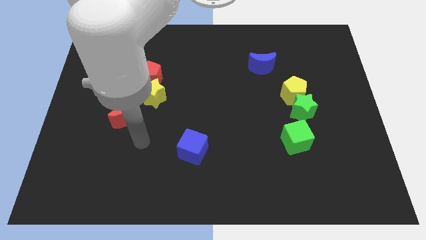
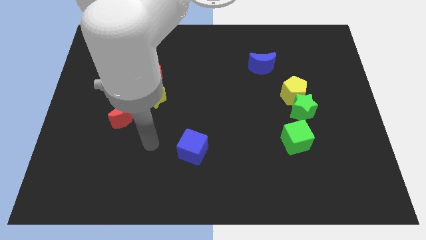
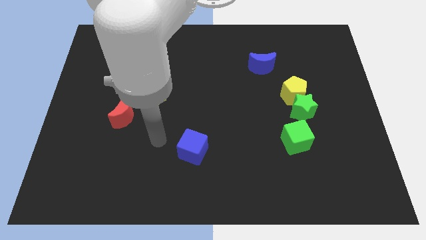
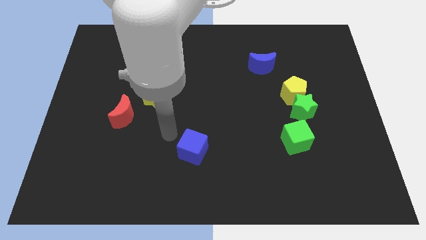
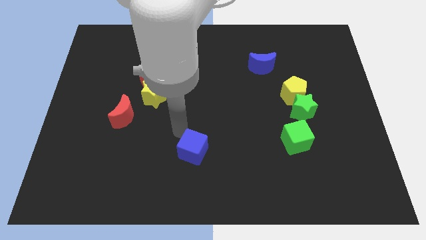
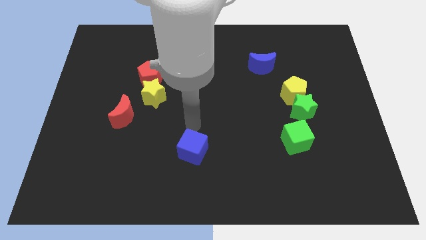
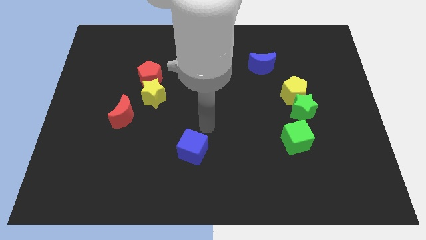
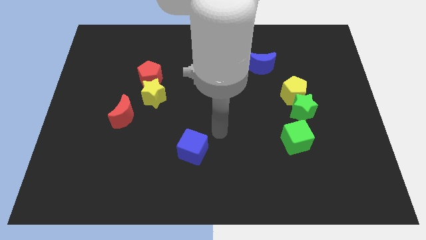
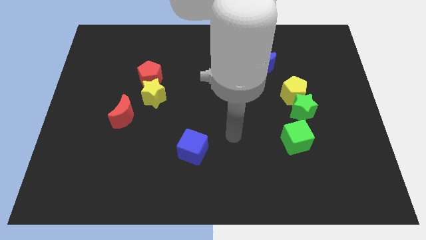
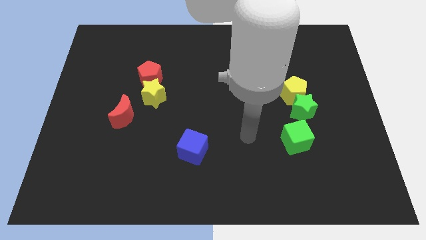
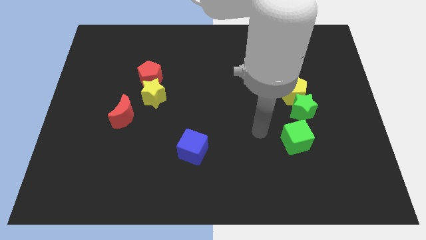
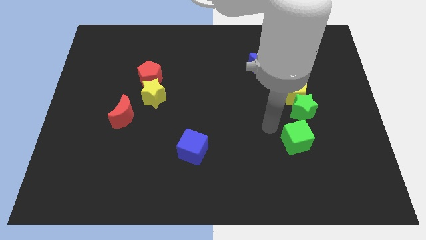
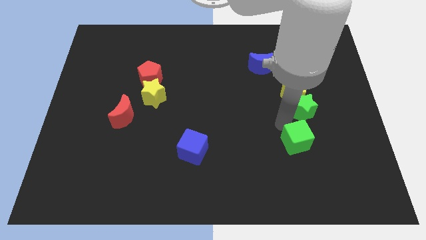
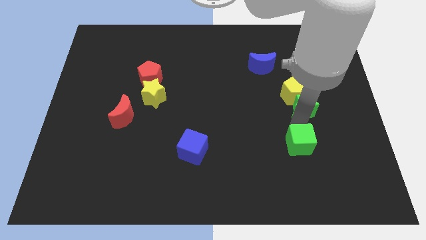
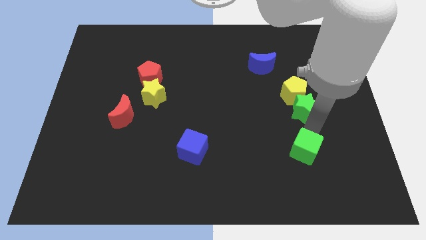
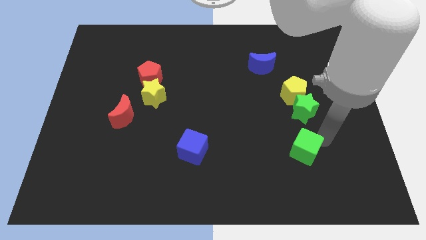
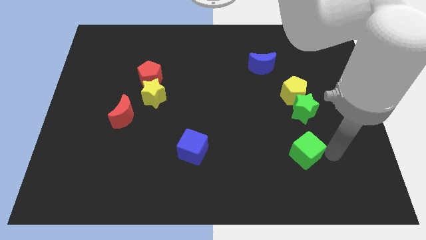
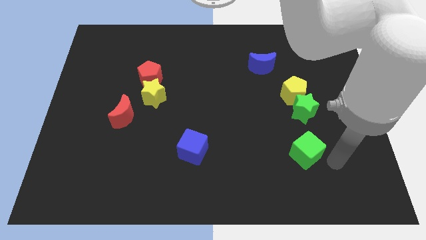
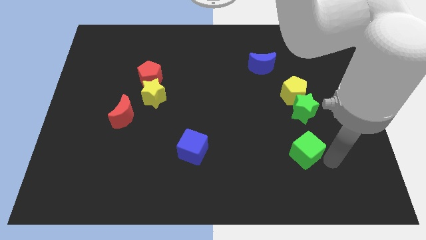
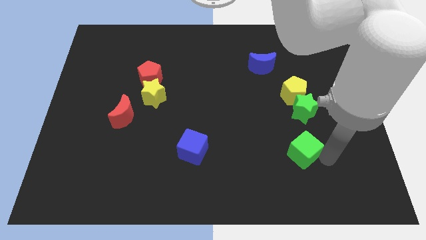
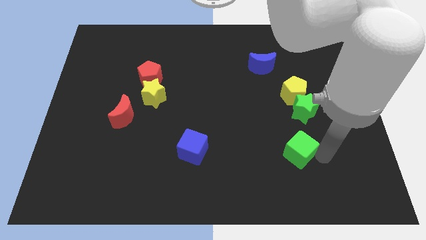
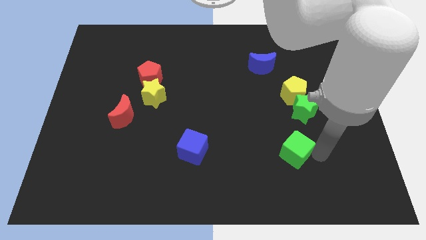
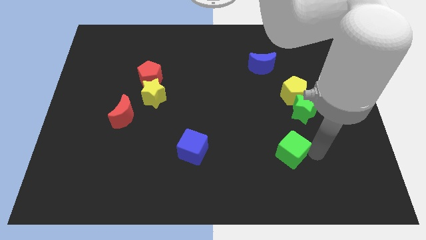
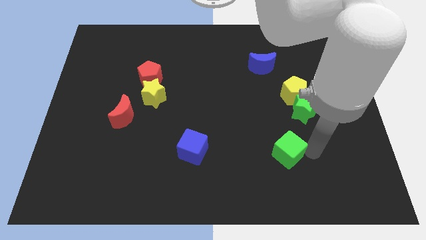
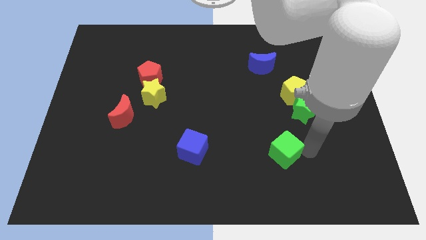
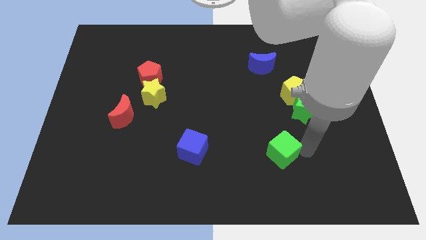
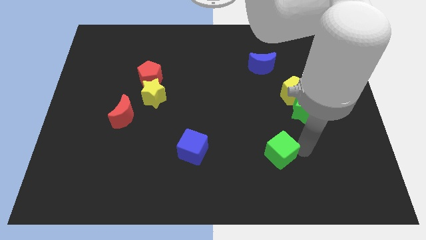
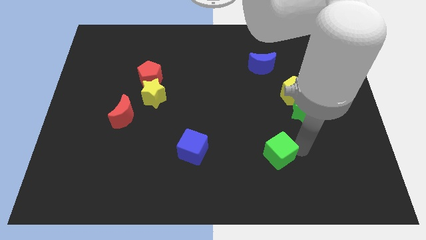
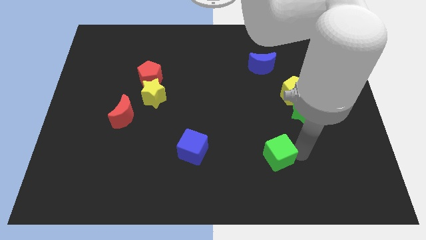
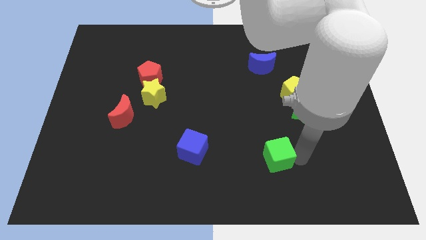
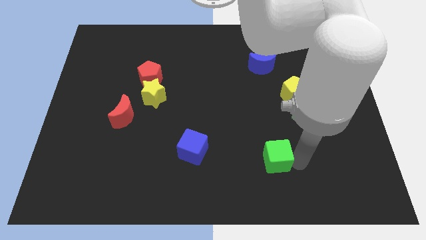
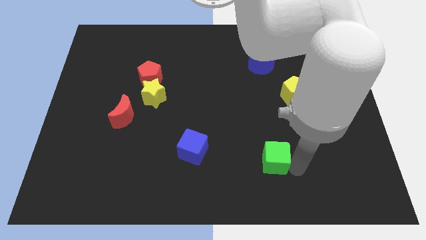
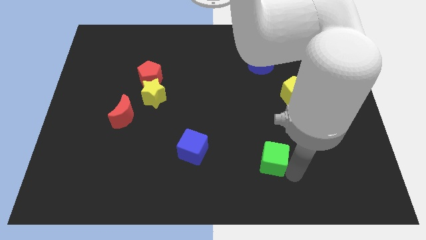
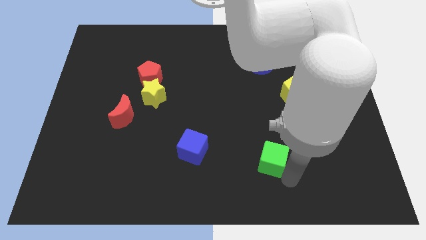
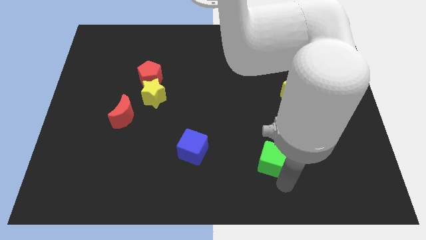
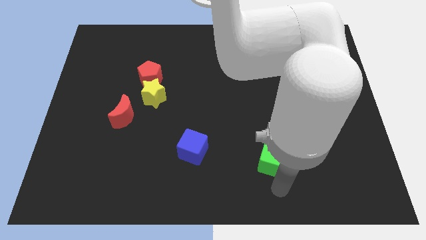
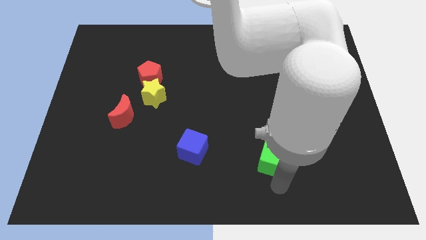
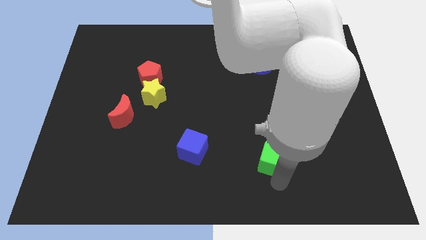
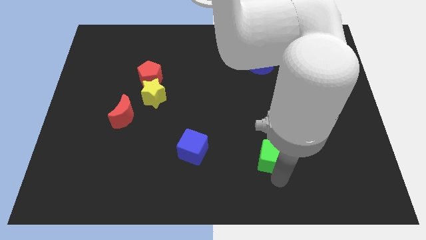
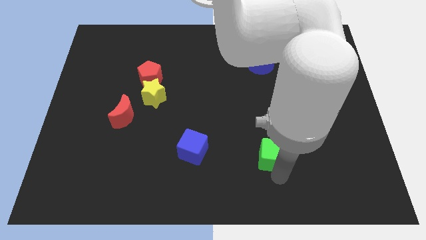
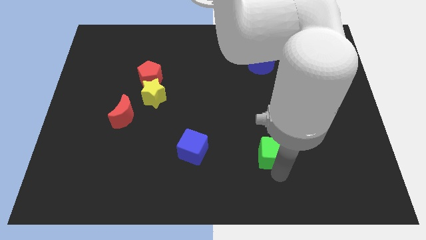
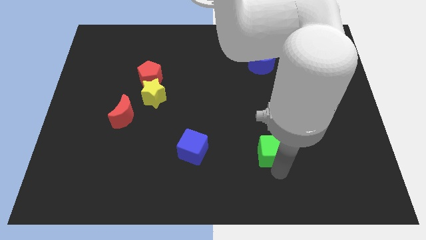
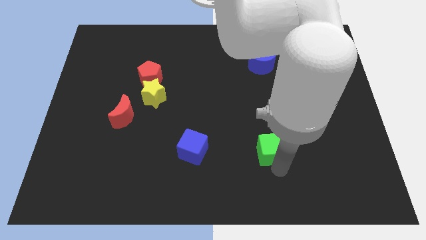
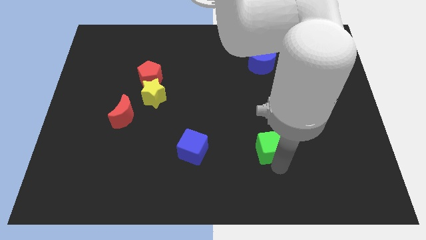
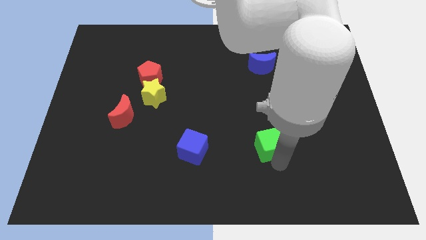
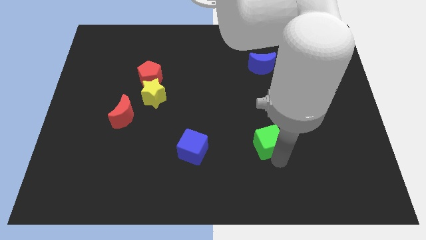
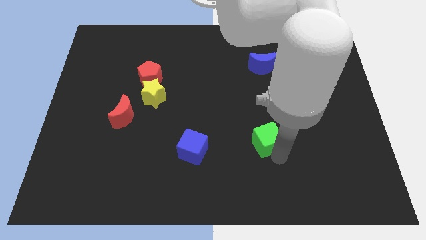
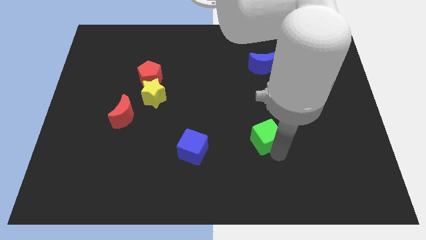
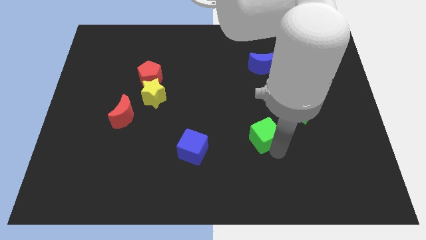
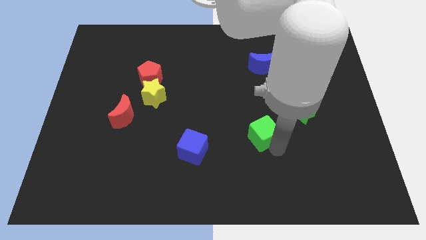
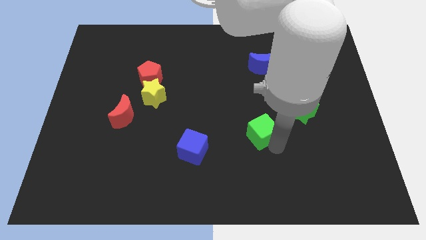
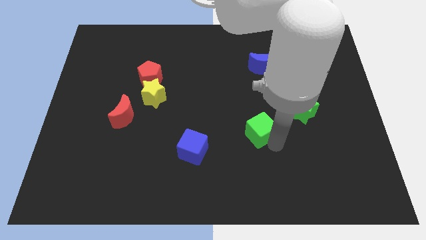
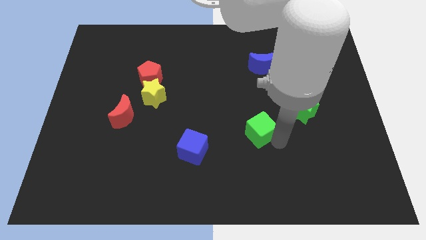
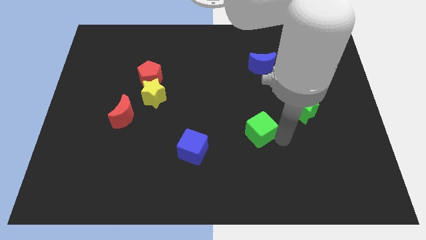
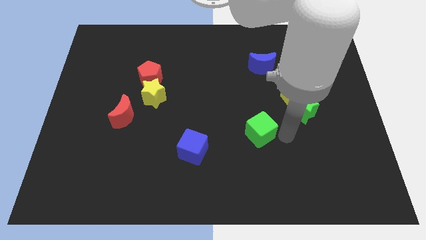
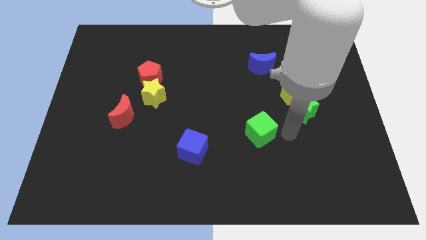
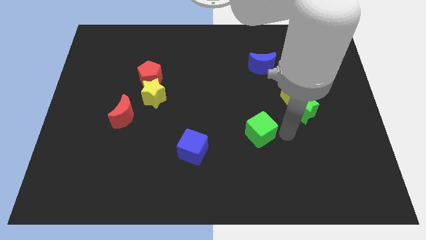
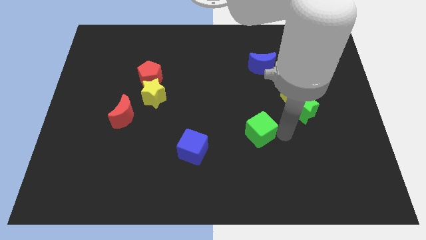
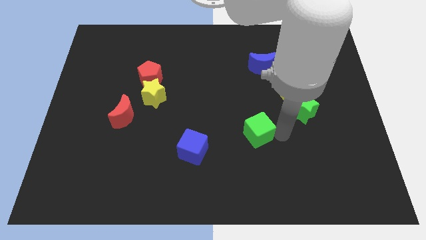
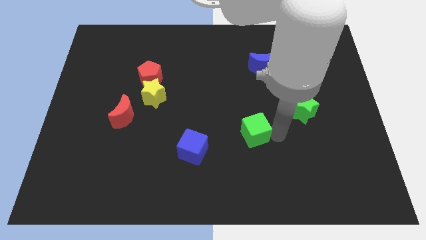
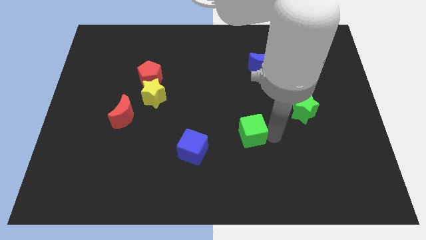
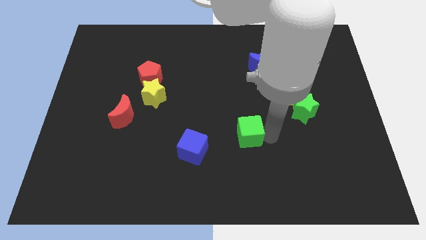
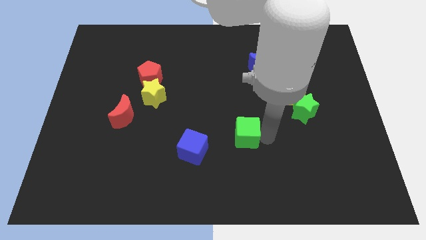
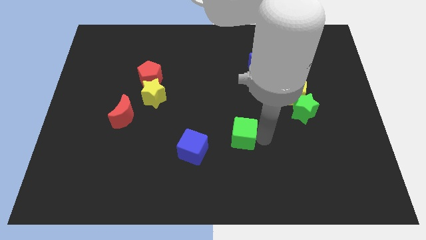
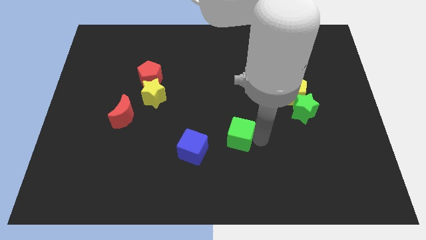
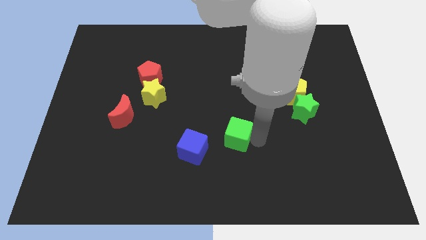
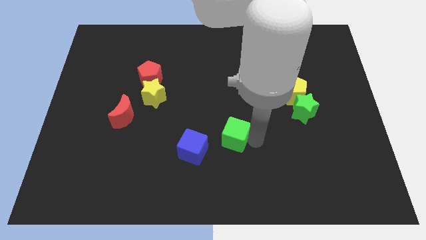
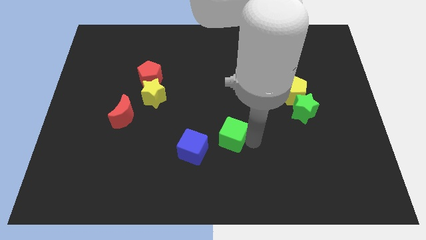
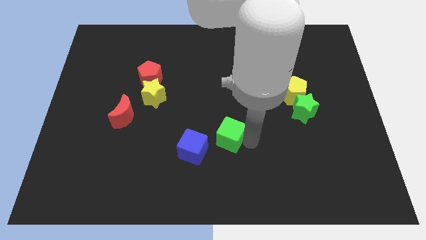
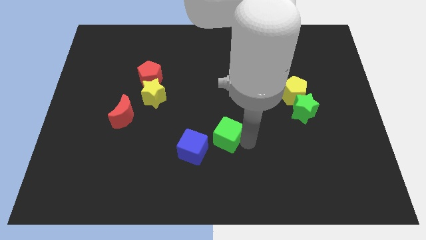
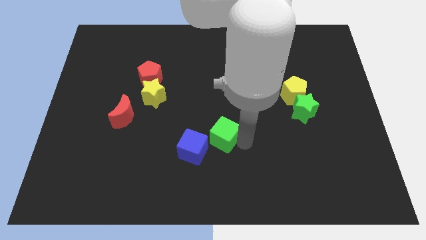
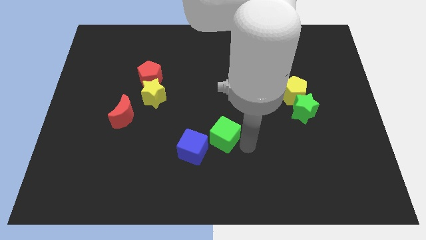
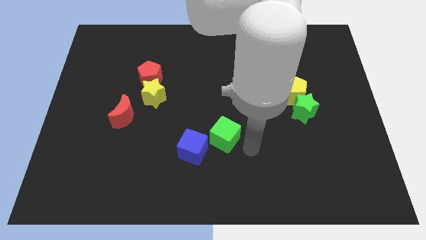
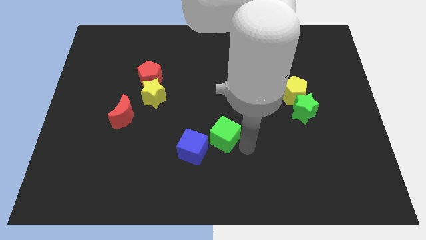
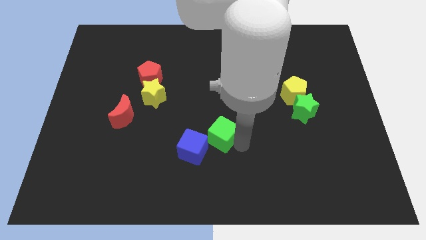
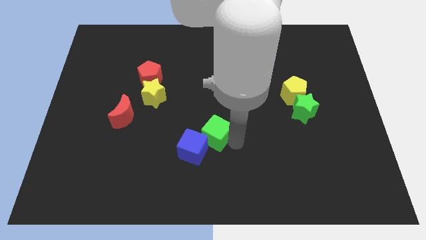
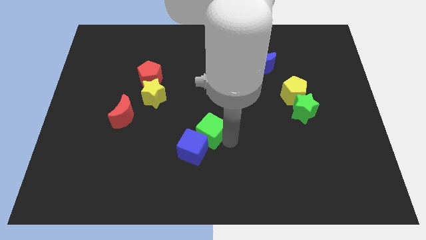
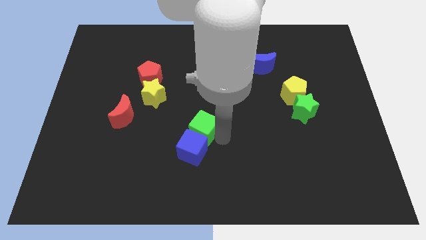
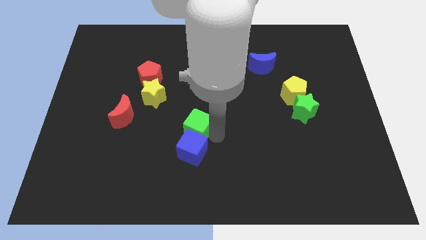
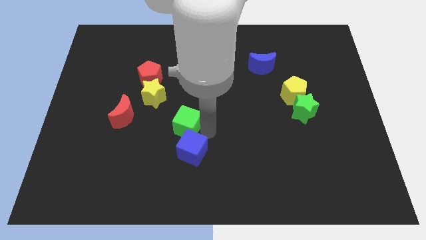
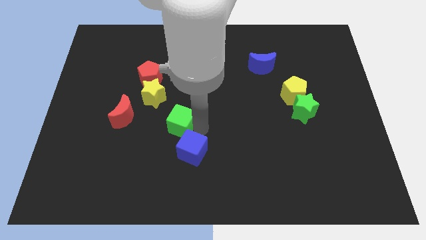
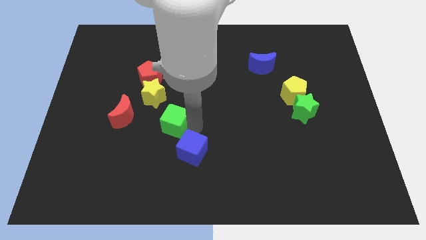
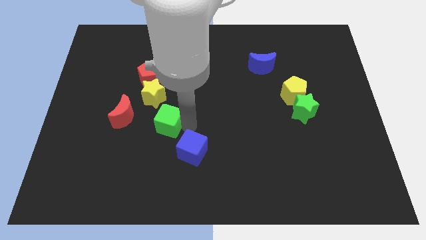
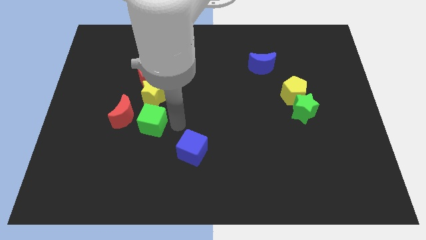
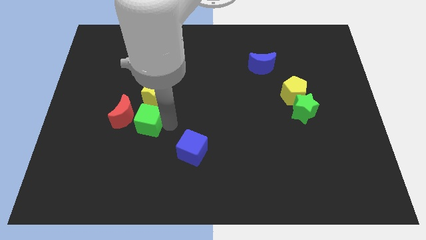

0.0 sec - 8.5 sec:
slide the green cube close to the red moon

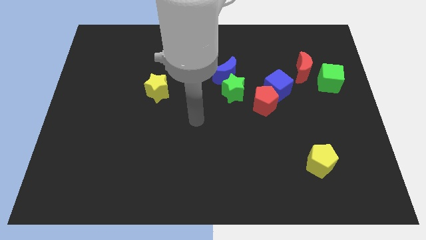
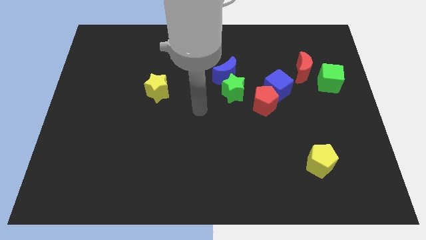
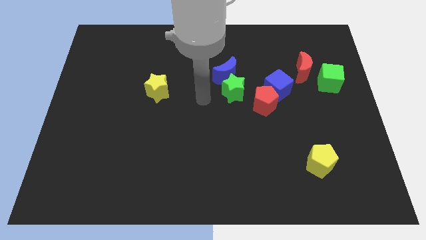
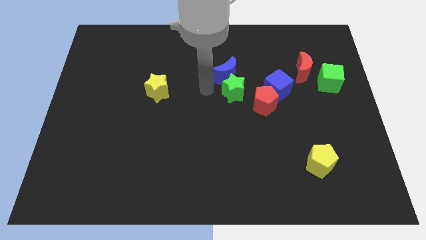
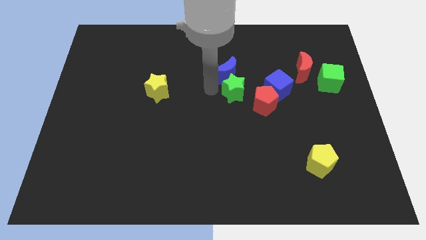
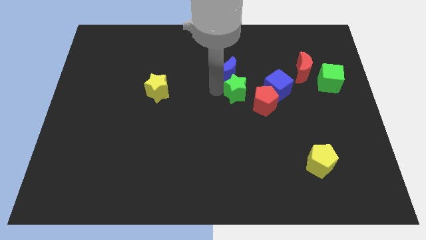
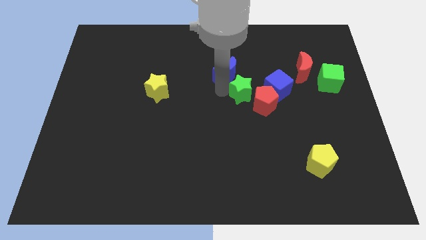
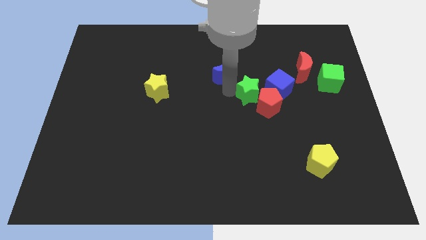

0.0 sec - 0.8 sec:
move the green star close to the red pentagon
